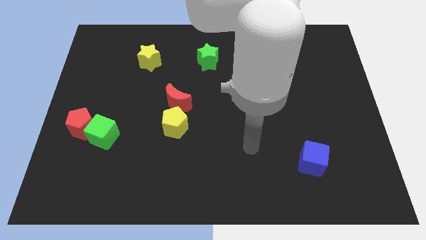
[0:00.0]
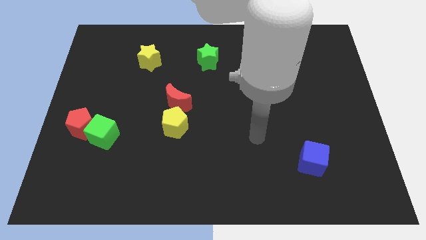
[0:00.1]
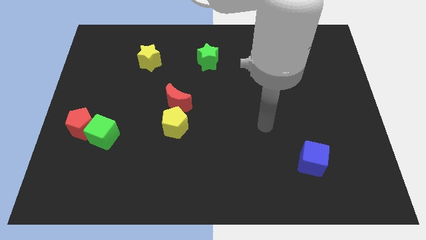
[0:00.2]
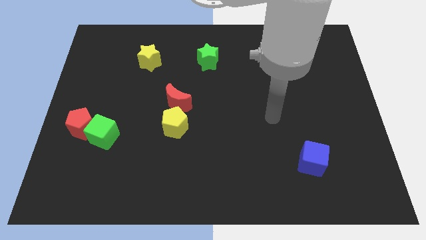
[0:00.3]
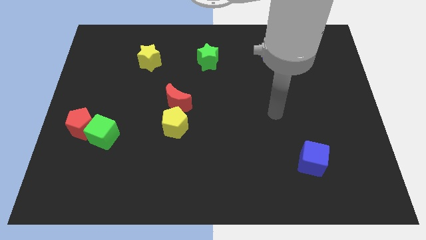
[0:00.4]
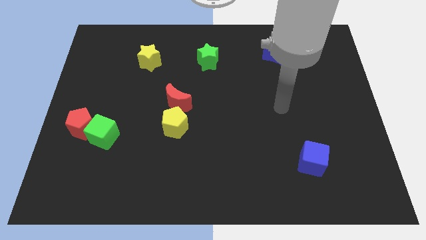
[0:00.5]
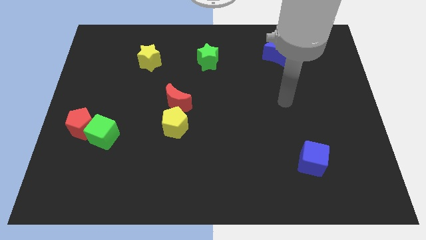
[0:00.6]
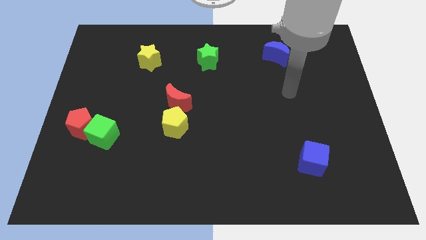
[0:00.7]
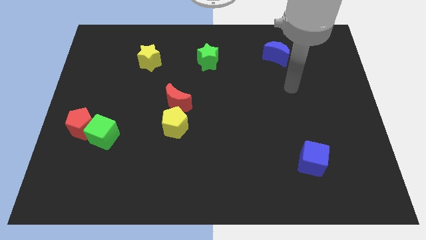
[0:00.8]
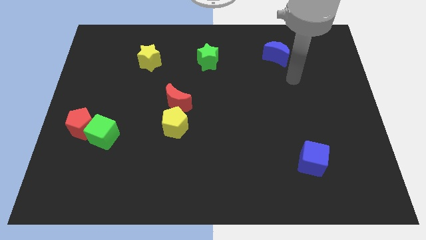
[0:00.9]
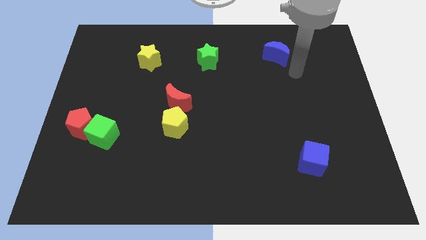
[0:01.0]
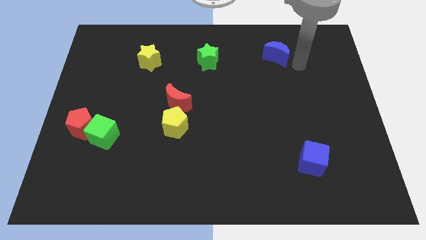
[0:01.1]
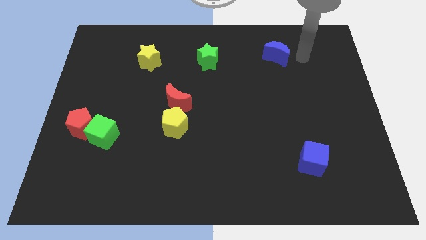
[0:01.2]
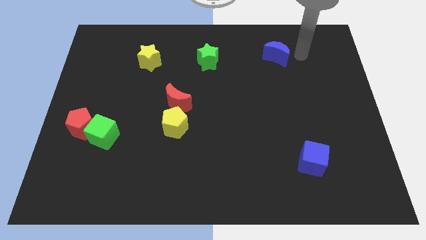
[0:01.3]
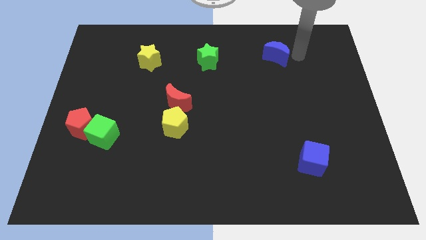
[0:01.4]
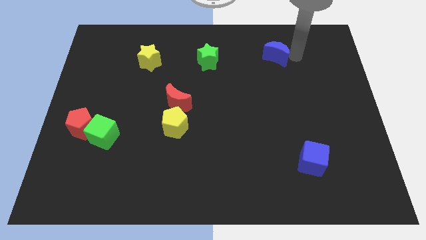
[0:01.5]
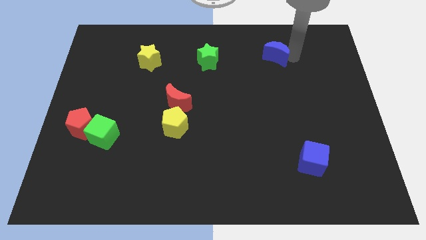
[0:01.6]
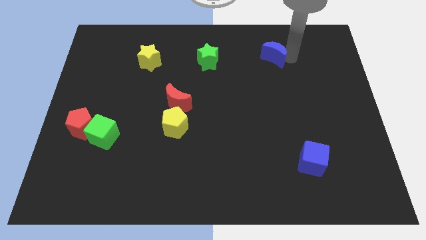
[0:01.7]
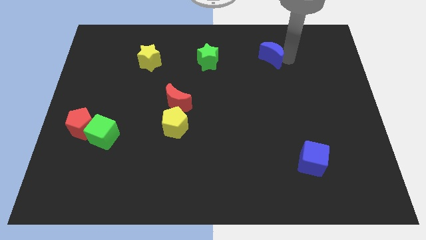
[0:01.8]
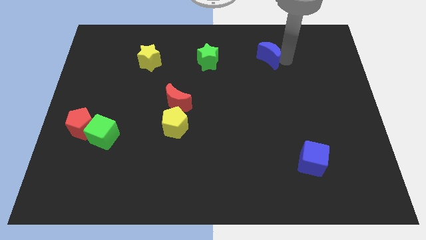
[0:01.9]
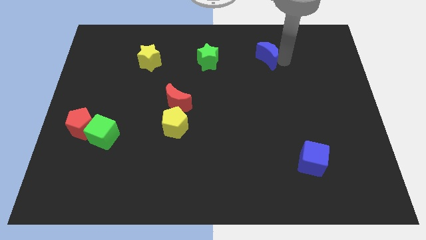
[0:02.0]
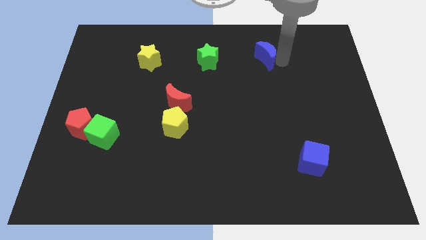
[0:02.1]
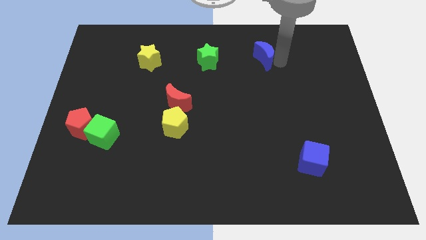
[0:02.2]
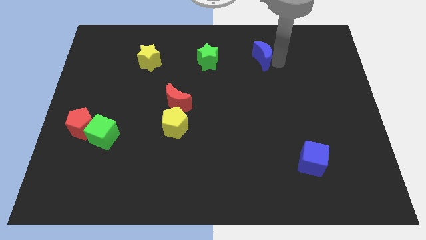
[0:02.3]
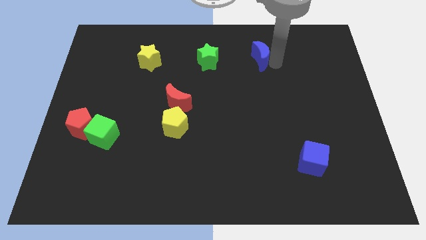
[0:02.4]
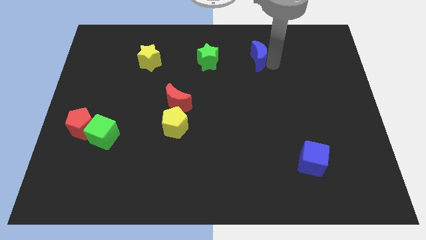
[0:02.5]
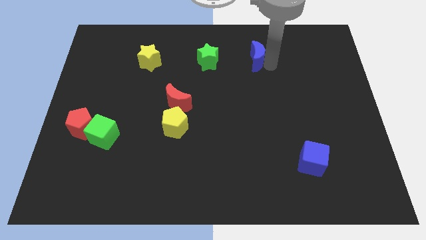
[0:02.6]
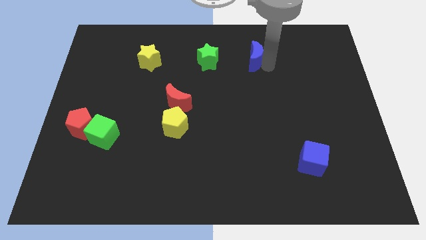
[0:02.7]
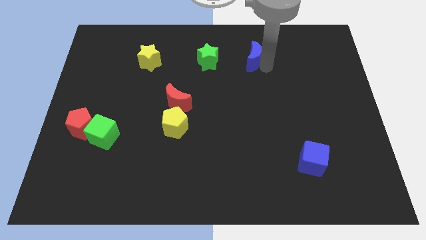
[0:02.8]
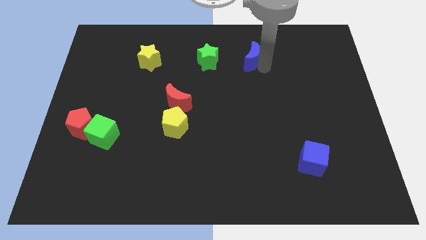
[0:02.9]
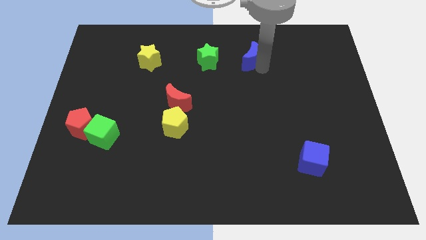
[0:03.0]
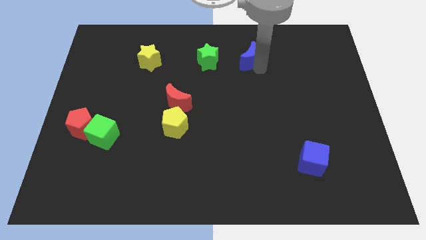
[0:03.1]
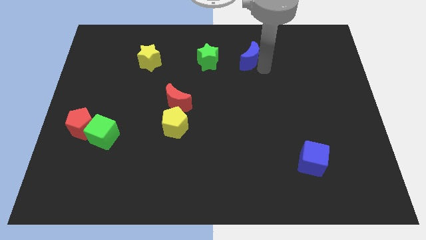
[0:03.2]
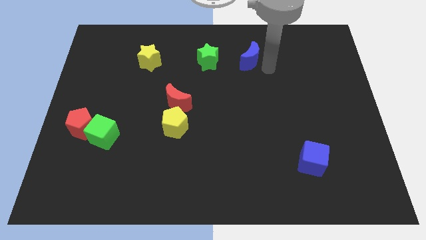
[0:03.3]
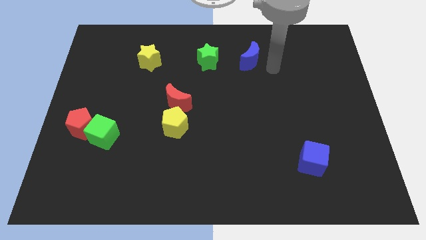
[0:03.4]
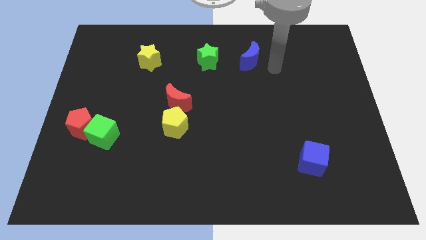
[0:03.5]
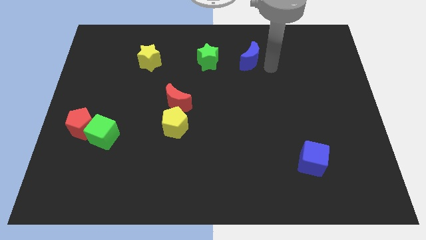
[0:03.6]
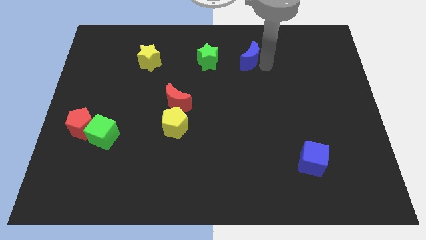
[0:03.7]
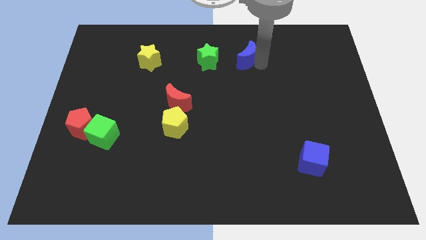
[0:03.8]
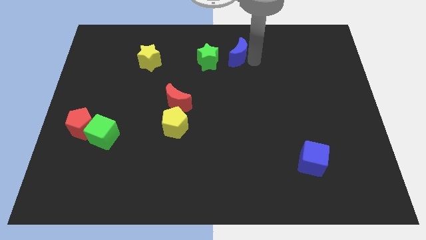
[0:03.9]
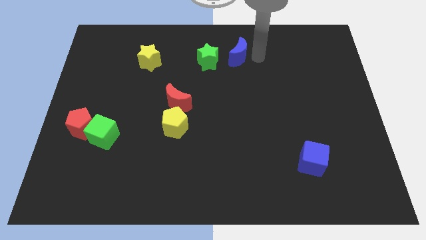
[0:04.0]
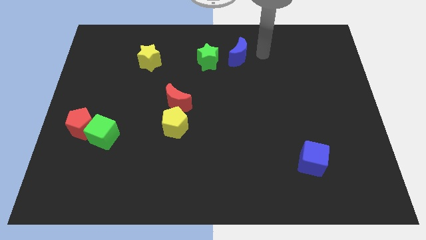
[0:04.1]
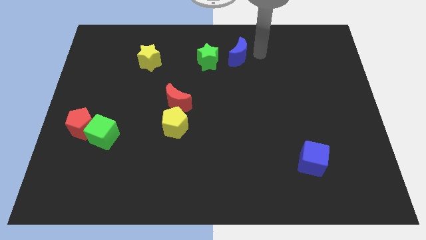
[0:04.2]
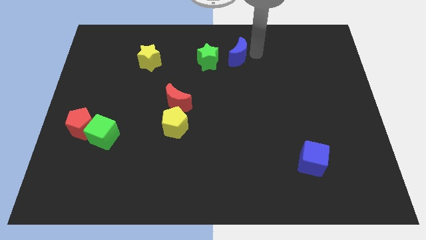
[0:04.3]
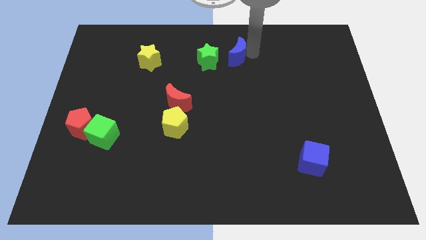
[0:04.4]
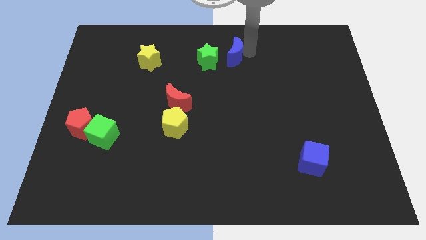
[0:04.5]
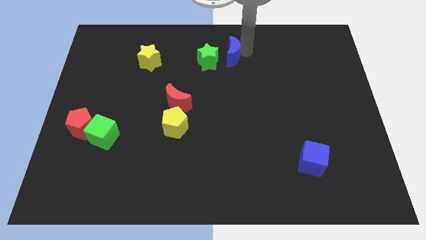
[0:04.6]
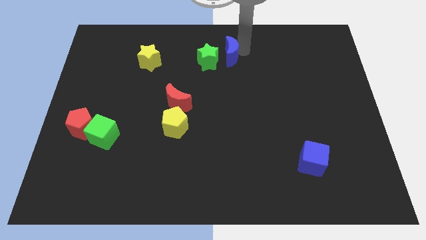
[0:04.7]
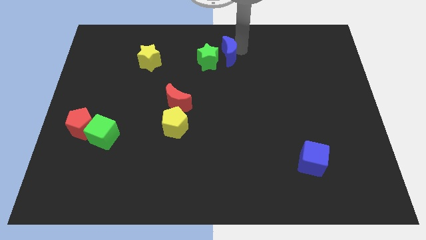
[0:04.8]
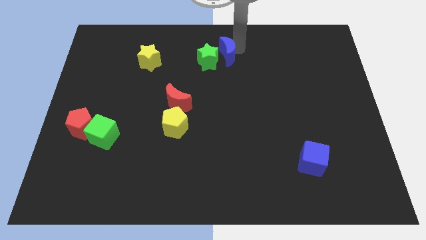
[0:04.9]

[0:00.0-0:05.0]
slide the blue moon towards the green star

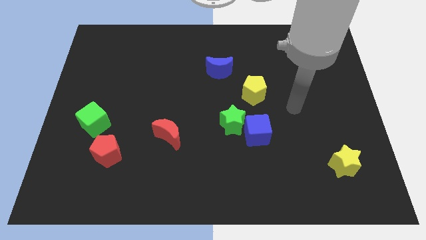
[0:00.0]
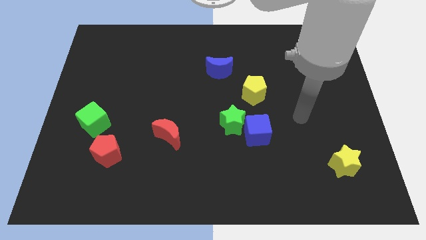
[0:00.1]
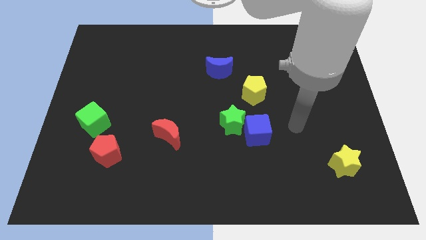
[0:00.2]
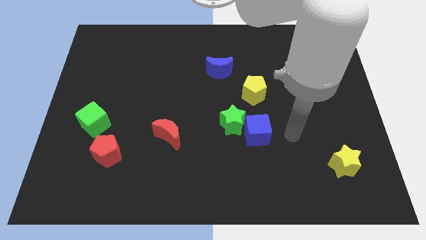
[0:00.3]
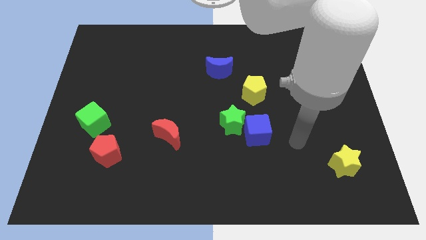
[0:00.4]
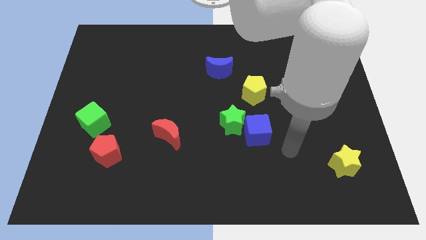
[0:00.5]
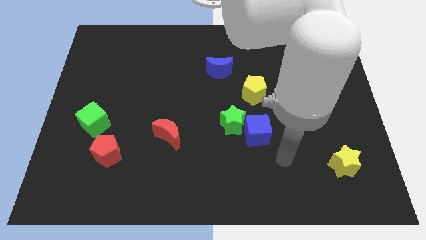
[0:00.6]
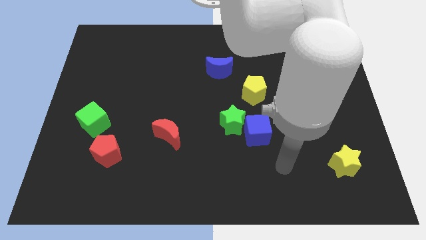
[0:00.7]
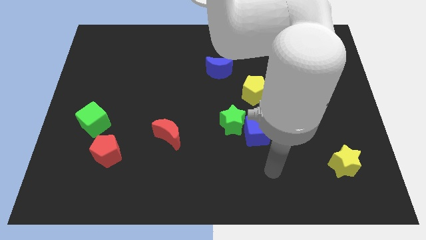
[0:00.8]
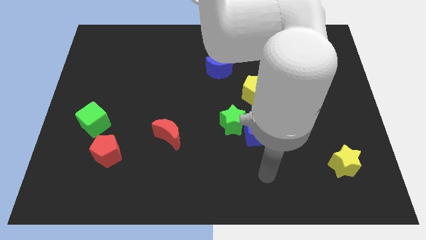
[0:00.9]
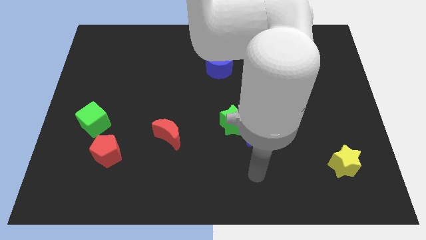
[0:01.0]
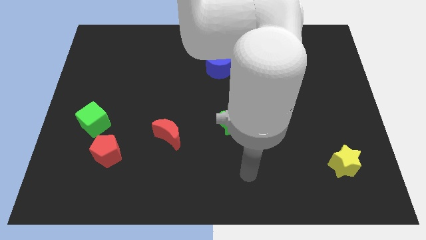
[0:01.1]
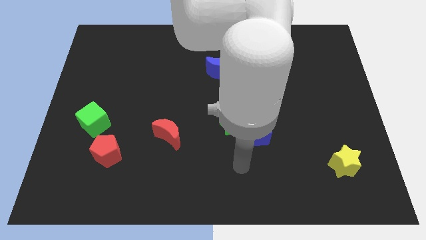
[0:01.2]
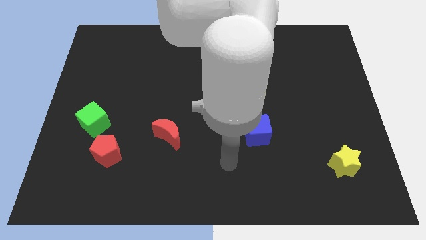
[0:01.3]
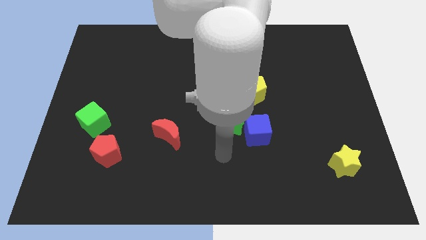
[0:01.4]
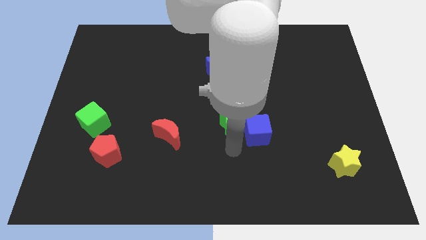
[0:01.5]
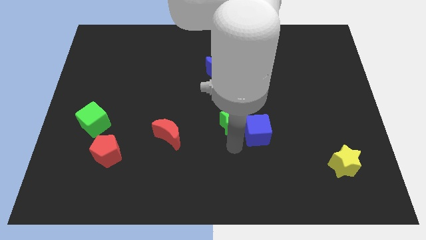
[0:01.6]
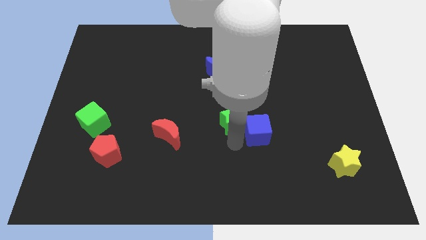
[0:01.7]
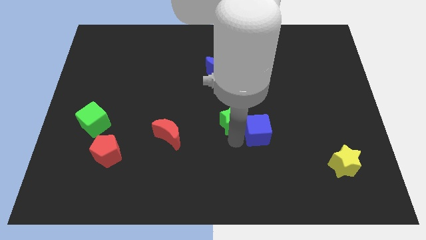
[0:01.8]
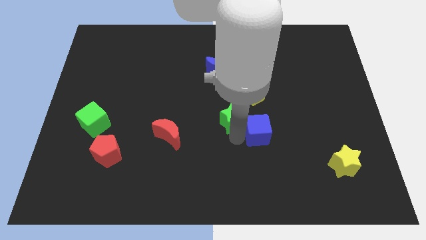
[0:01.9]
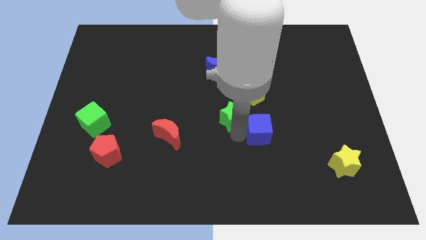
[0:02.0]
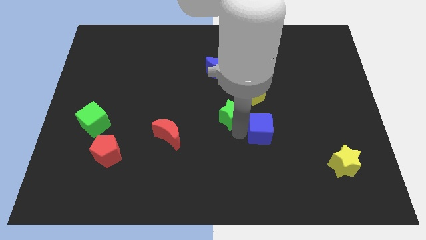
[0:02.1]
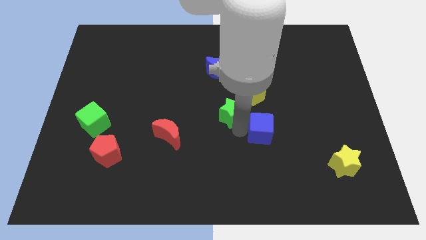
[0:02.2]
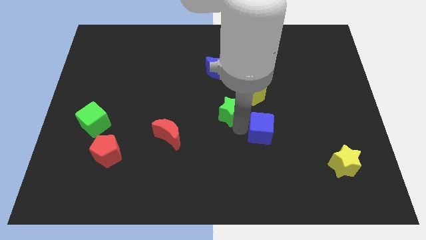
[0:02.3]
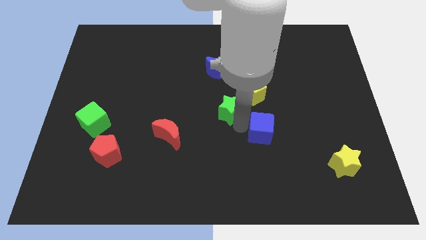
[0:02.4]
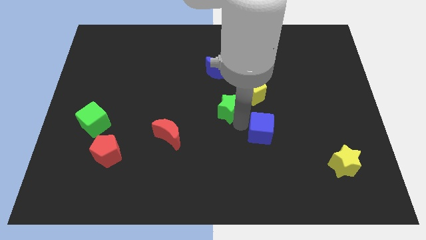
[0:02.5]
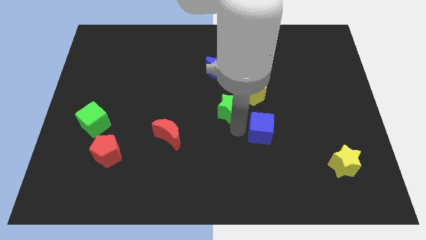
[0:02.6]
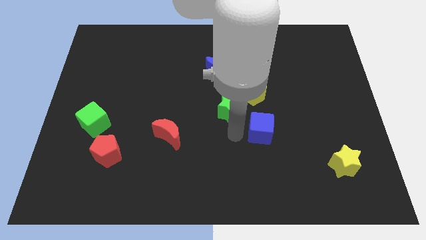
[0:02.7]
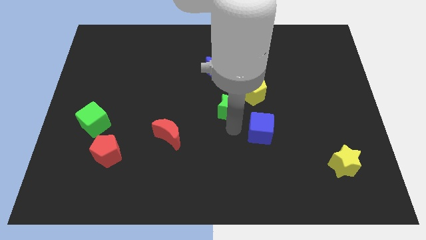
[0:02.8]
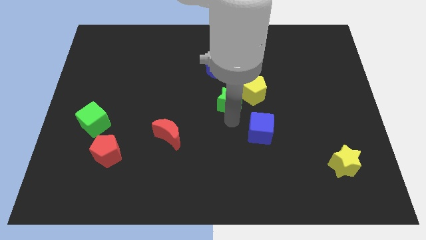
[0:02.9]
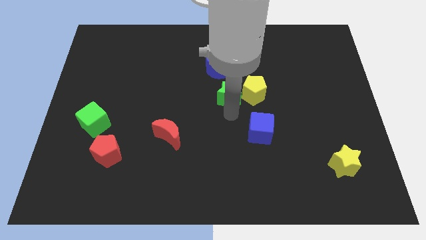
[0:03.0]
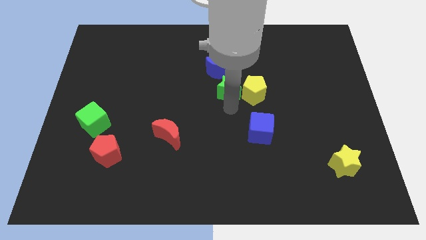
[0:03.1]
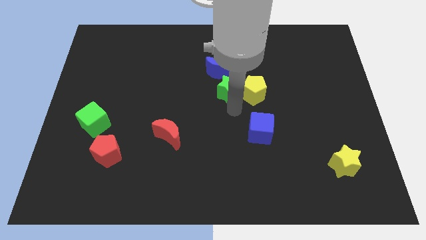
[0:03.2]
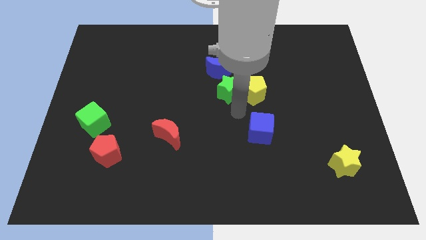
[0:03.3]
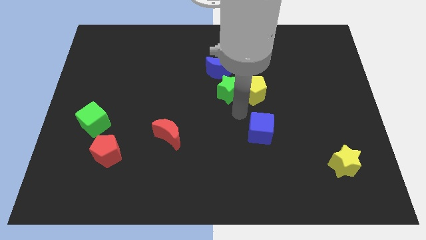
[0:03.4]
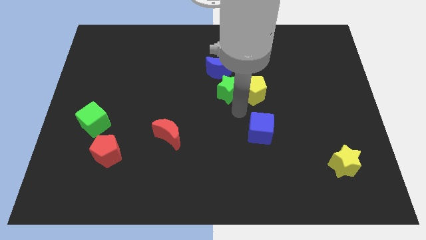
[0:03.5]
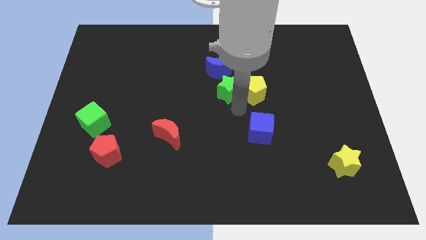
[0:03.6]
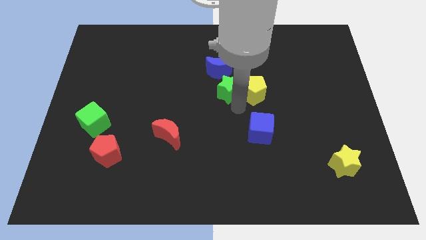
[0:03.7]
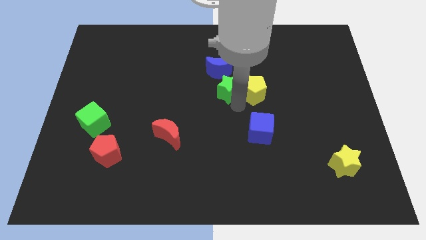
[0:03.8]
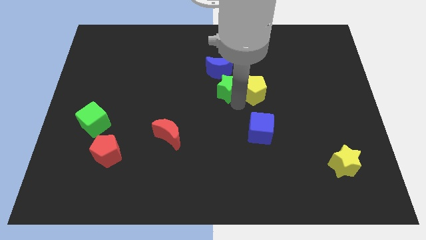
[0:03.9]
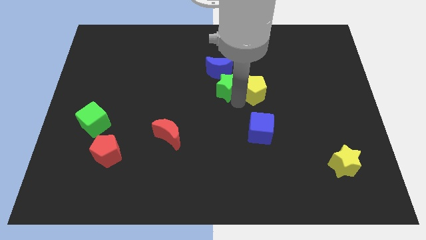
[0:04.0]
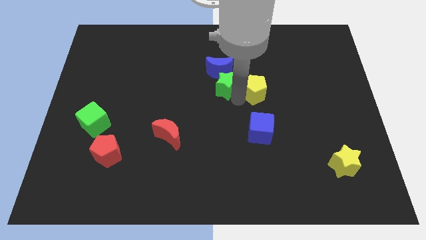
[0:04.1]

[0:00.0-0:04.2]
slide the green star close to the blue moon
